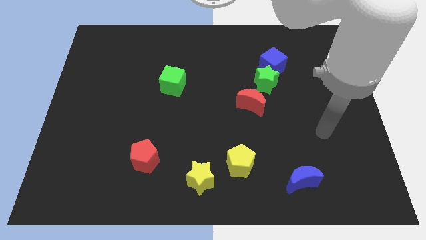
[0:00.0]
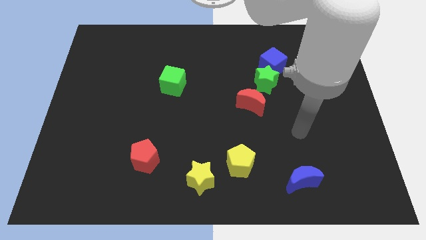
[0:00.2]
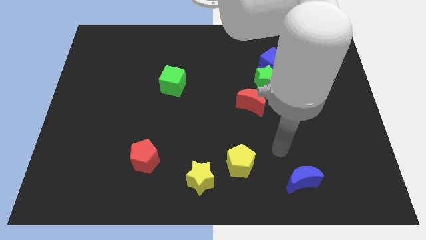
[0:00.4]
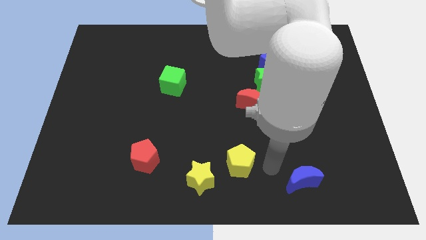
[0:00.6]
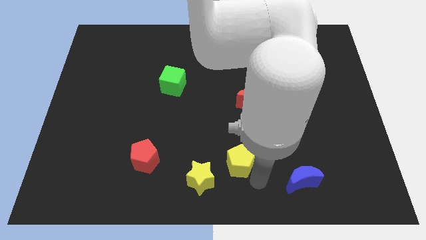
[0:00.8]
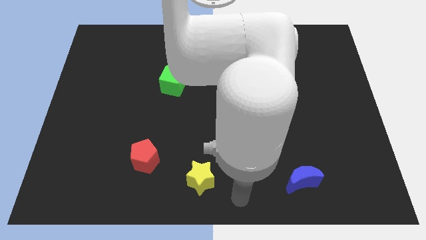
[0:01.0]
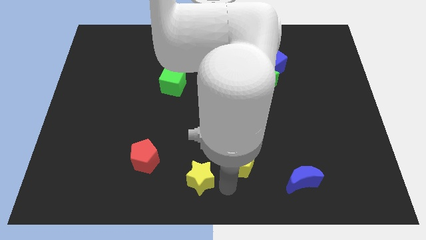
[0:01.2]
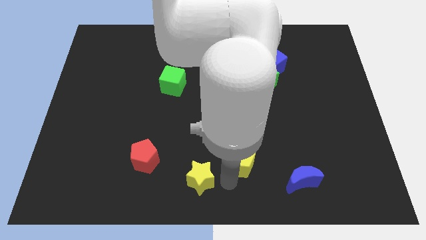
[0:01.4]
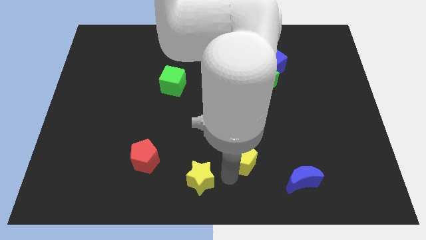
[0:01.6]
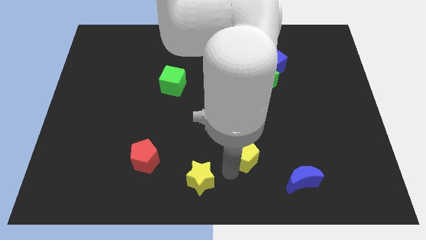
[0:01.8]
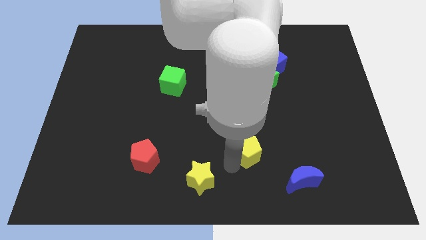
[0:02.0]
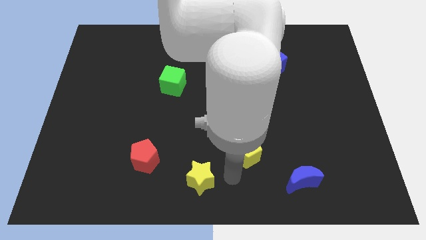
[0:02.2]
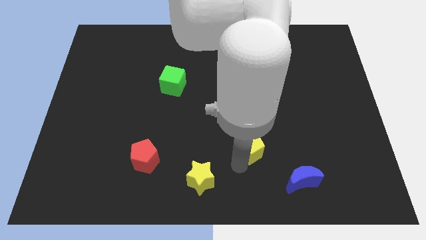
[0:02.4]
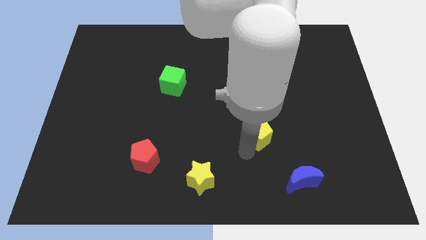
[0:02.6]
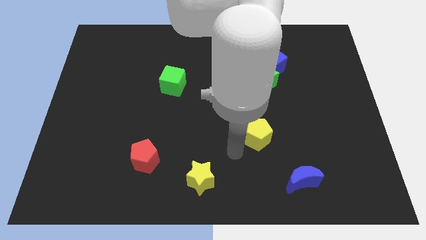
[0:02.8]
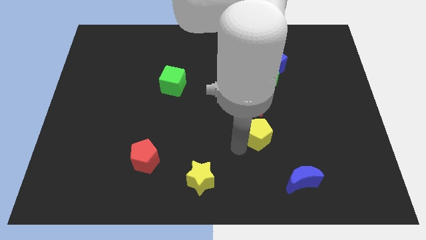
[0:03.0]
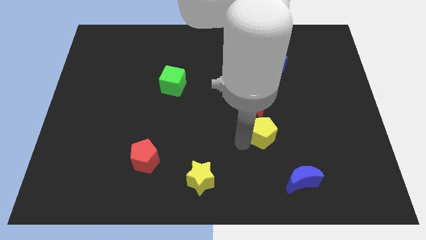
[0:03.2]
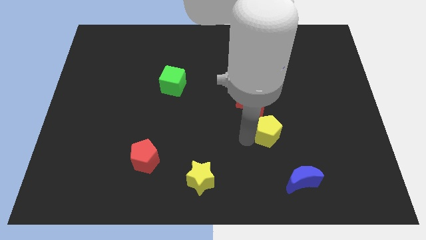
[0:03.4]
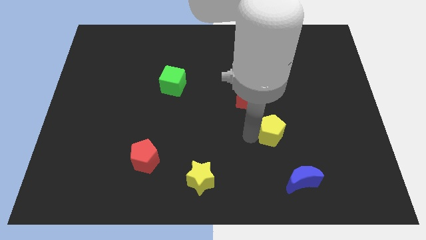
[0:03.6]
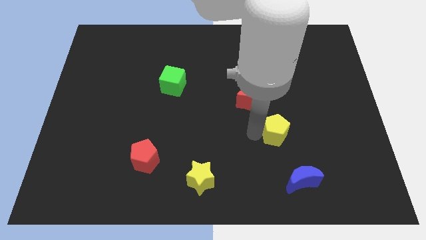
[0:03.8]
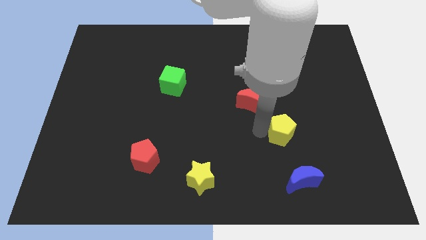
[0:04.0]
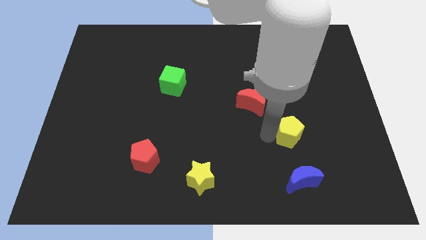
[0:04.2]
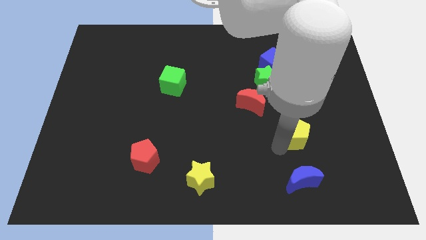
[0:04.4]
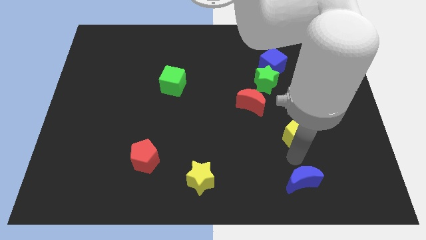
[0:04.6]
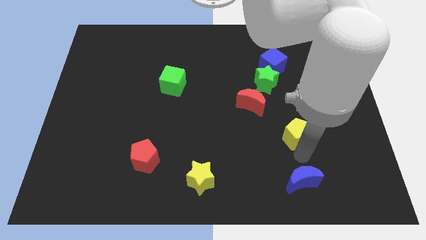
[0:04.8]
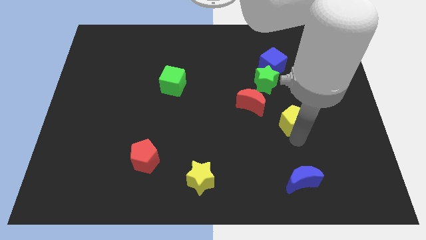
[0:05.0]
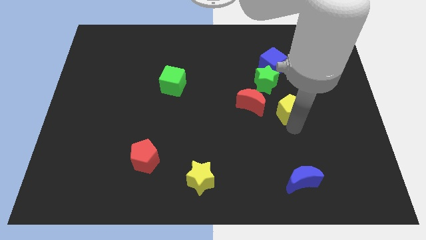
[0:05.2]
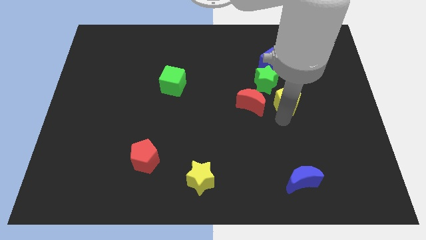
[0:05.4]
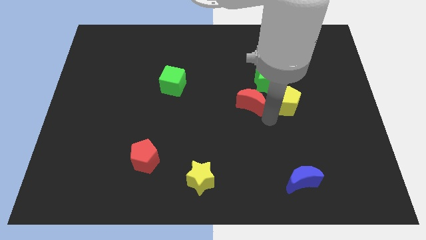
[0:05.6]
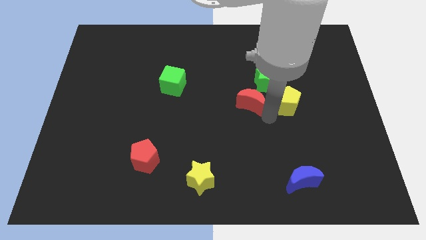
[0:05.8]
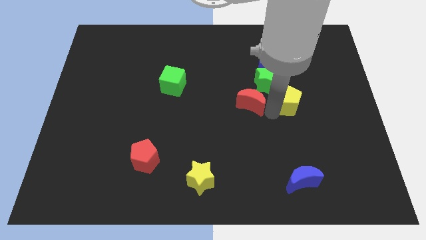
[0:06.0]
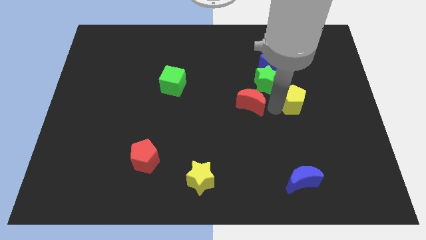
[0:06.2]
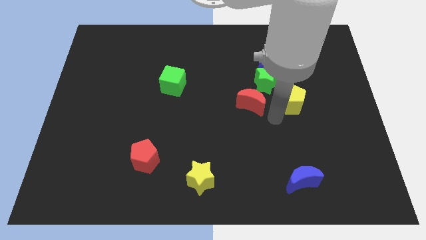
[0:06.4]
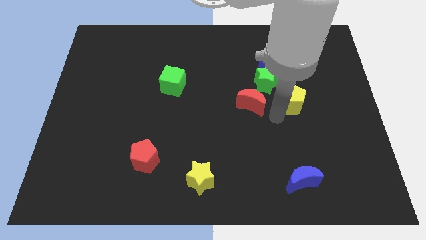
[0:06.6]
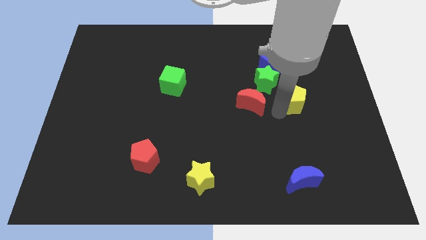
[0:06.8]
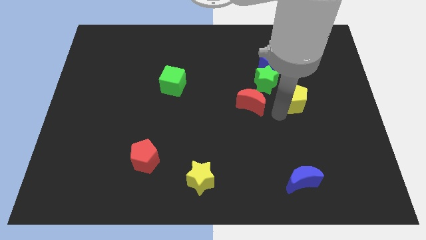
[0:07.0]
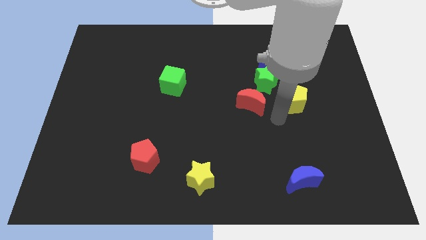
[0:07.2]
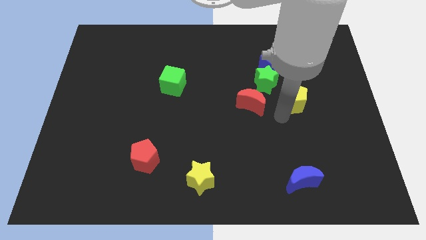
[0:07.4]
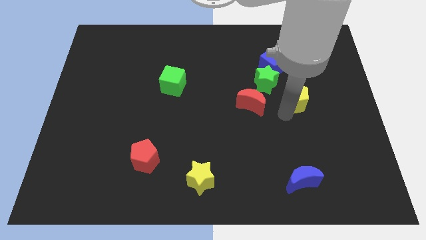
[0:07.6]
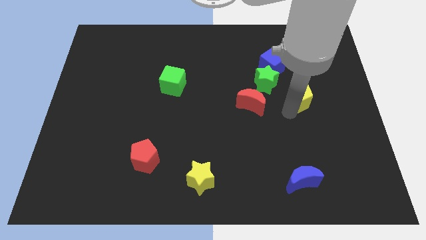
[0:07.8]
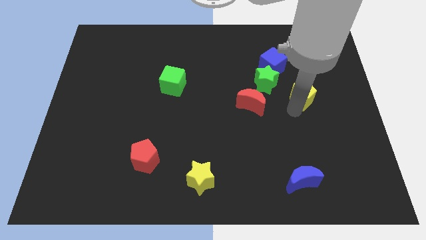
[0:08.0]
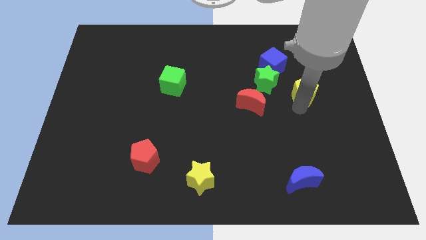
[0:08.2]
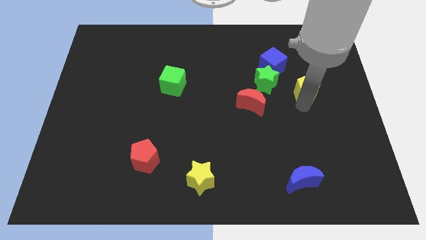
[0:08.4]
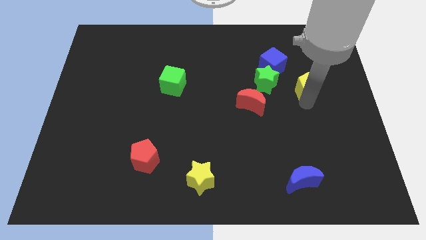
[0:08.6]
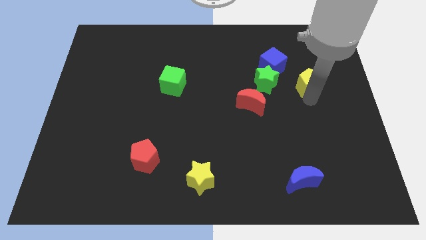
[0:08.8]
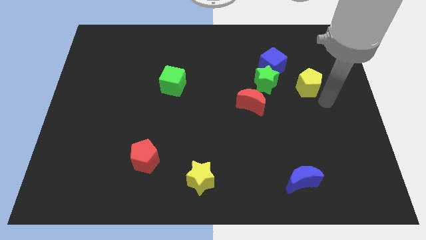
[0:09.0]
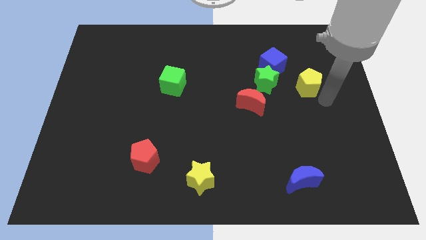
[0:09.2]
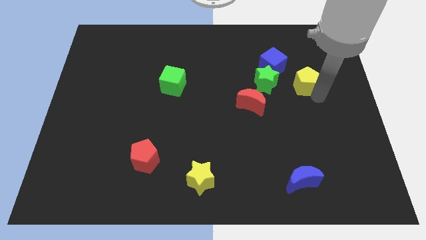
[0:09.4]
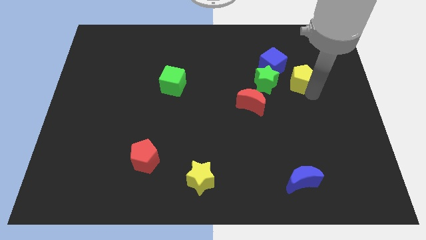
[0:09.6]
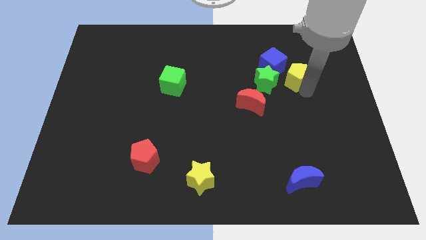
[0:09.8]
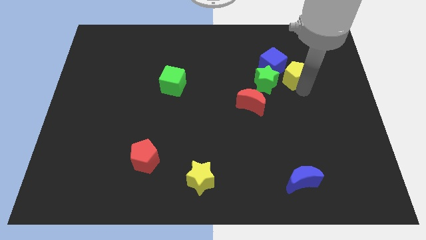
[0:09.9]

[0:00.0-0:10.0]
move the yellow pentagon diagonally up and to the right of the green star

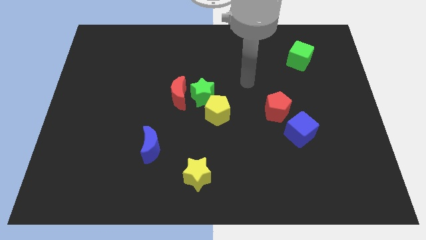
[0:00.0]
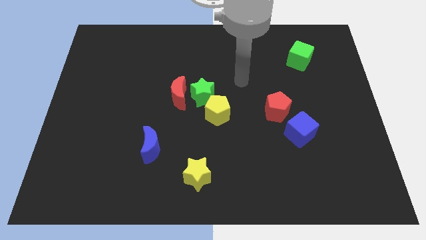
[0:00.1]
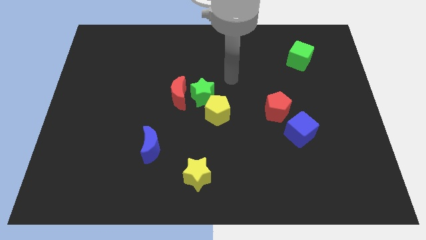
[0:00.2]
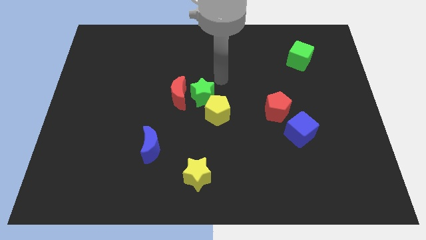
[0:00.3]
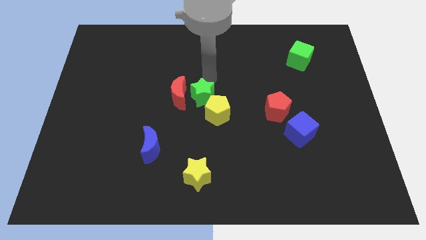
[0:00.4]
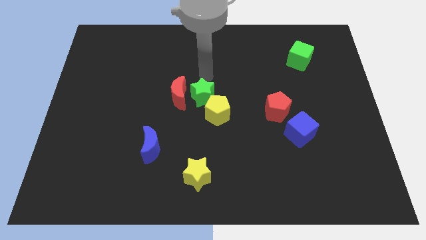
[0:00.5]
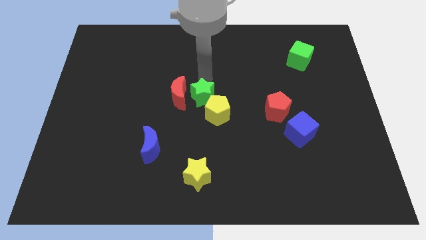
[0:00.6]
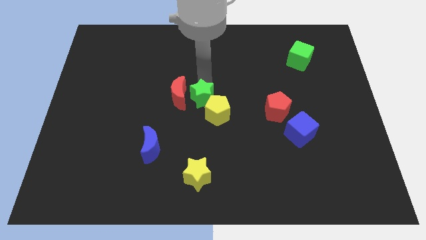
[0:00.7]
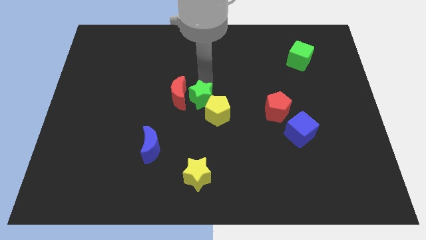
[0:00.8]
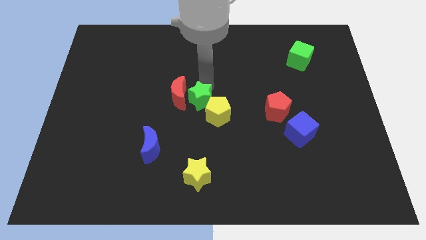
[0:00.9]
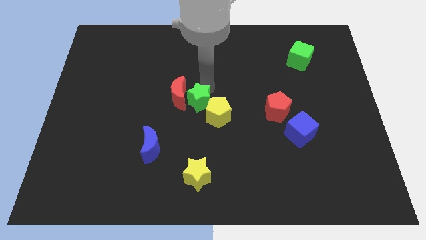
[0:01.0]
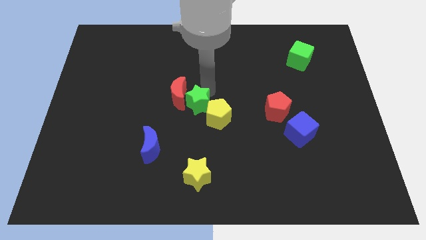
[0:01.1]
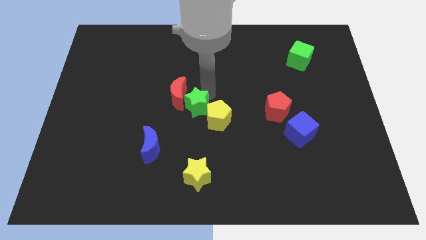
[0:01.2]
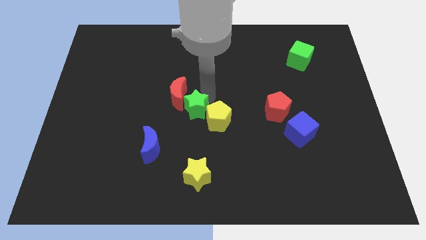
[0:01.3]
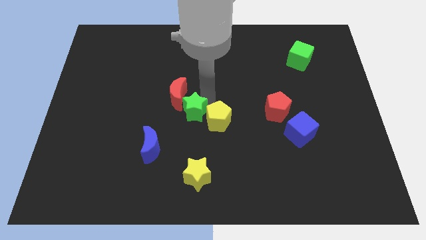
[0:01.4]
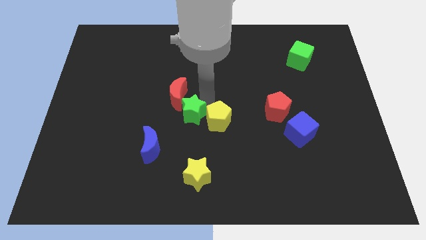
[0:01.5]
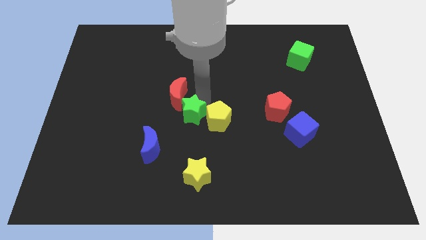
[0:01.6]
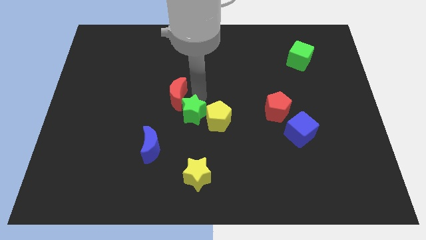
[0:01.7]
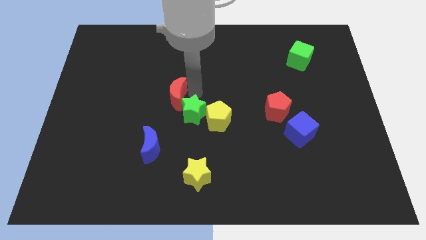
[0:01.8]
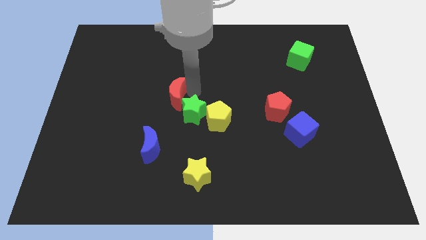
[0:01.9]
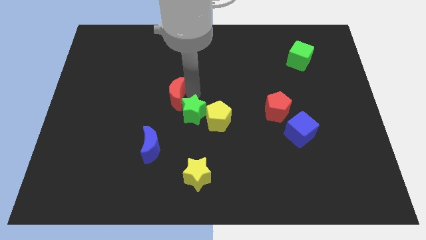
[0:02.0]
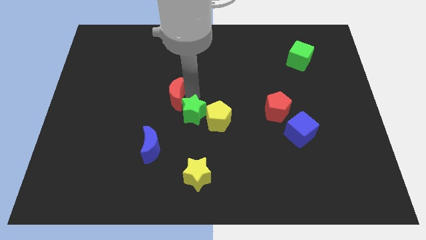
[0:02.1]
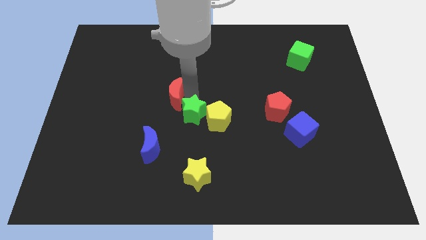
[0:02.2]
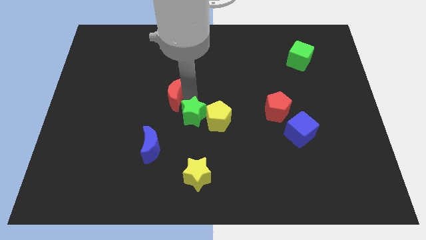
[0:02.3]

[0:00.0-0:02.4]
put the green star to the bottom left side of the yellow pentagon

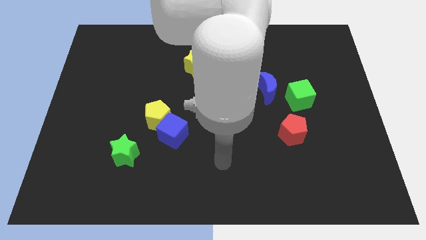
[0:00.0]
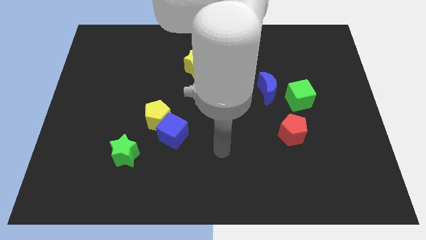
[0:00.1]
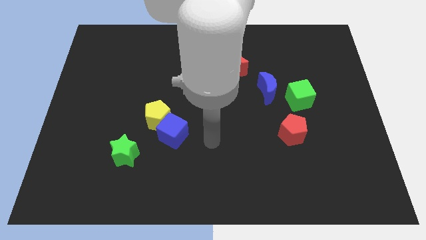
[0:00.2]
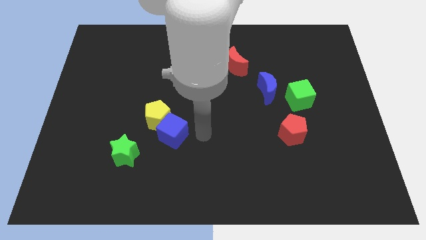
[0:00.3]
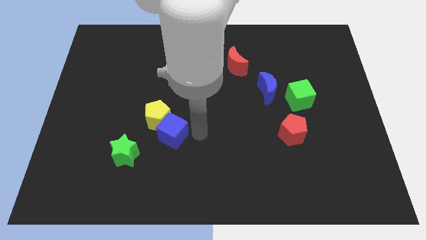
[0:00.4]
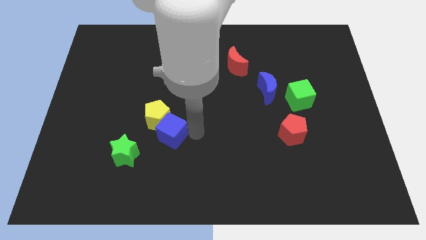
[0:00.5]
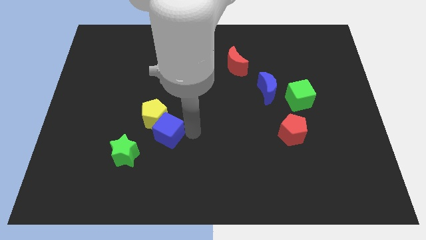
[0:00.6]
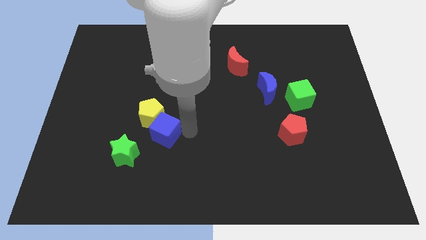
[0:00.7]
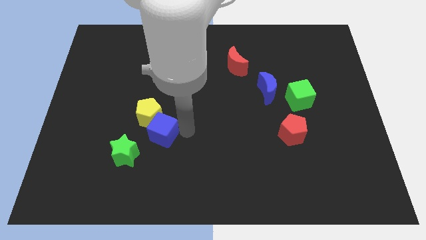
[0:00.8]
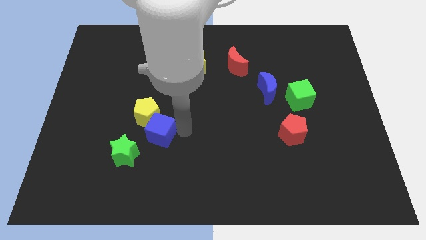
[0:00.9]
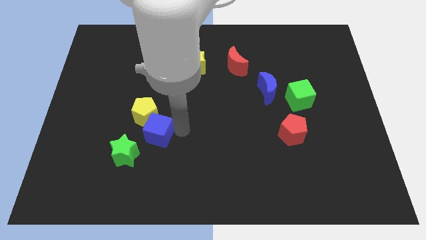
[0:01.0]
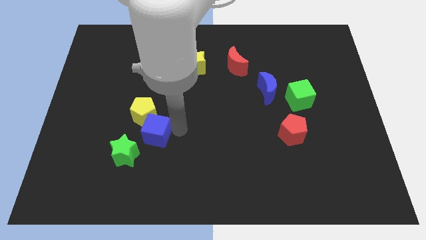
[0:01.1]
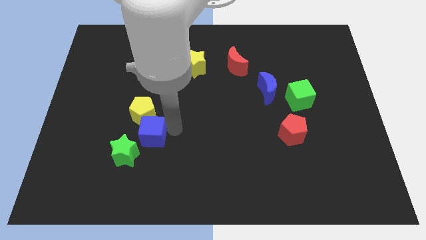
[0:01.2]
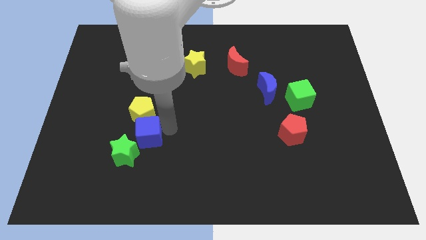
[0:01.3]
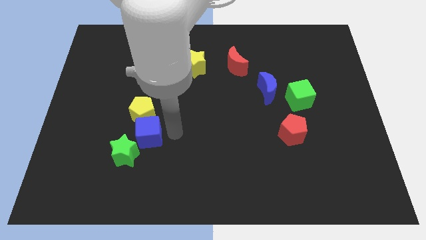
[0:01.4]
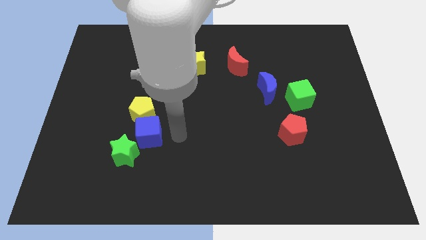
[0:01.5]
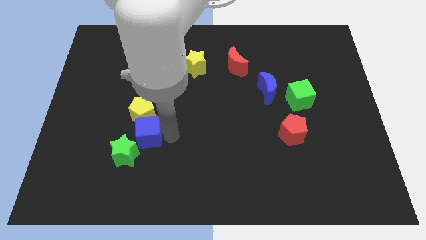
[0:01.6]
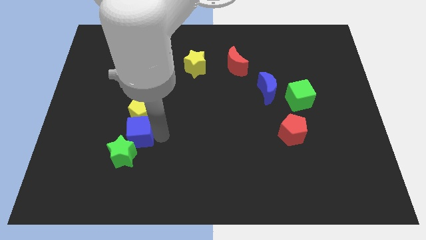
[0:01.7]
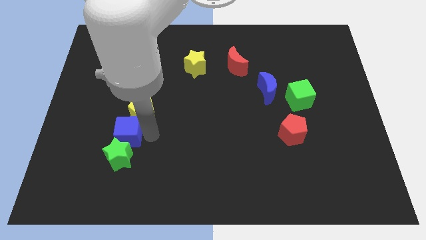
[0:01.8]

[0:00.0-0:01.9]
push the blue cube to the top left side of the green star
